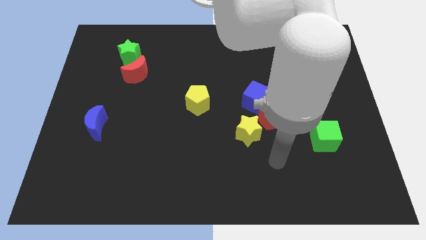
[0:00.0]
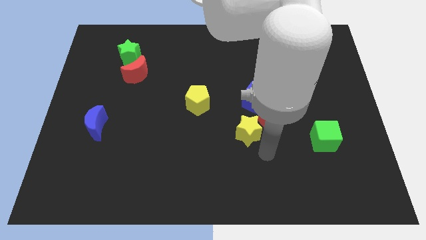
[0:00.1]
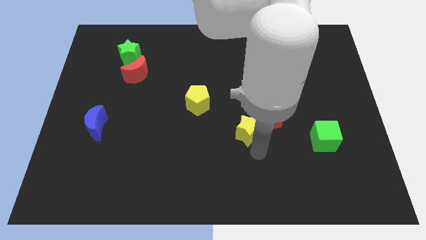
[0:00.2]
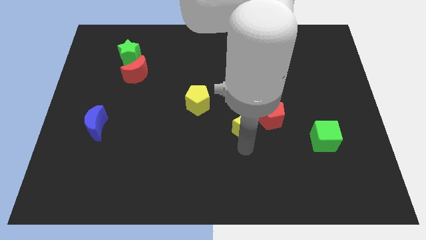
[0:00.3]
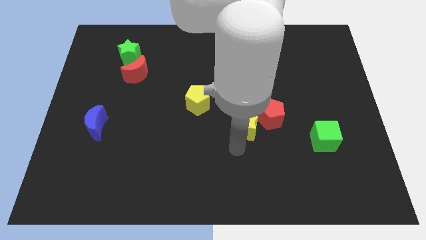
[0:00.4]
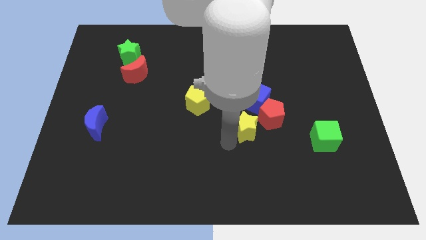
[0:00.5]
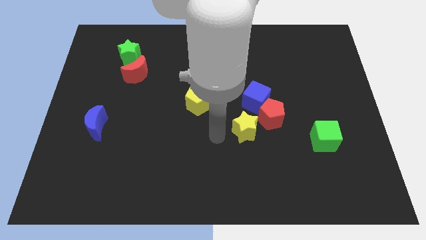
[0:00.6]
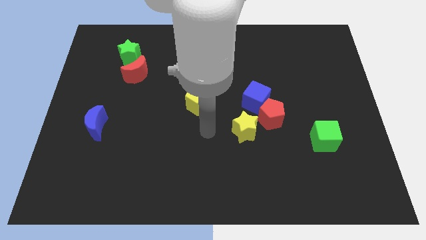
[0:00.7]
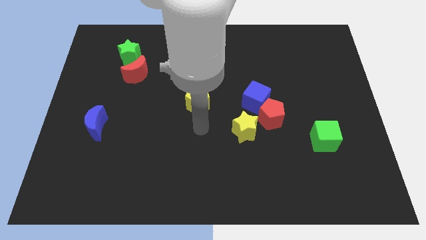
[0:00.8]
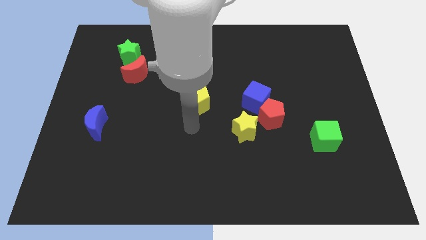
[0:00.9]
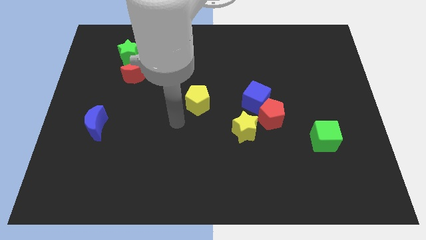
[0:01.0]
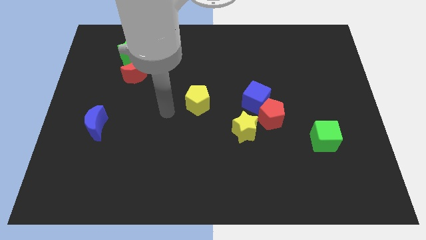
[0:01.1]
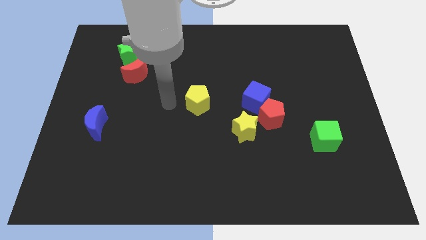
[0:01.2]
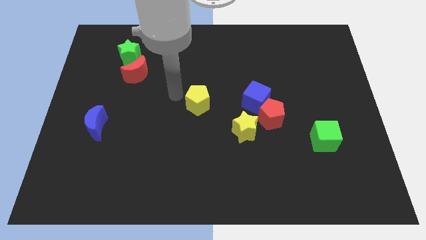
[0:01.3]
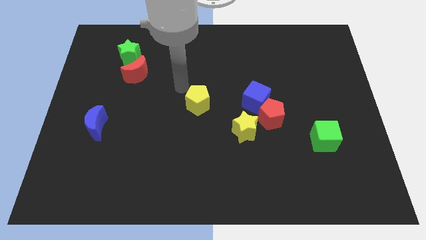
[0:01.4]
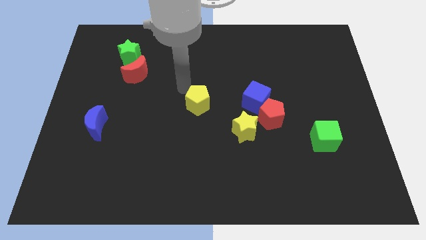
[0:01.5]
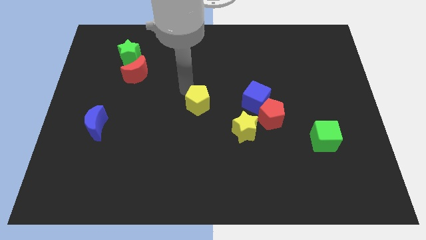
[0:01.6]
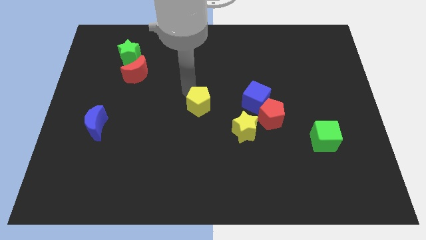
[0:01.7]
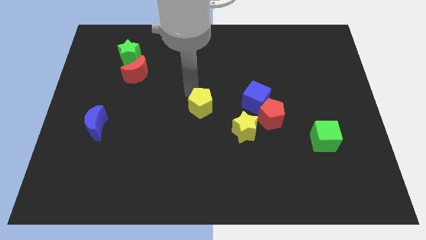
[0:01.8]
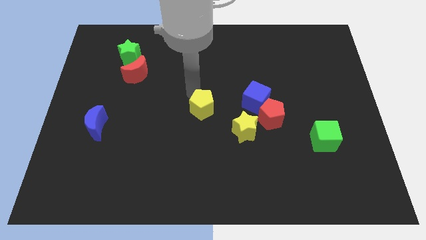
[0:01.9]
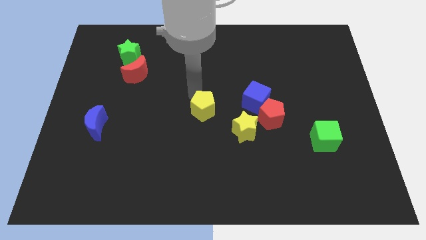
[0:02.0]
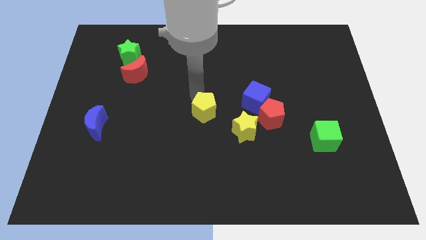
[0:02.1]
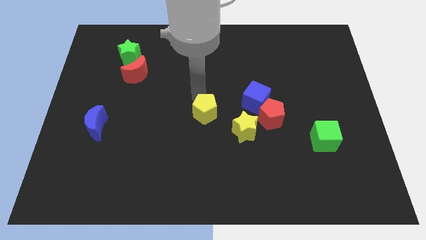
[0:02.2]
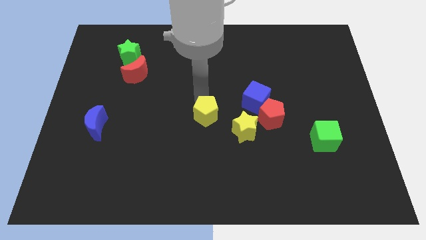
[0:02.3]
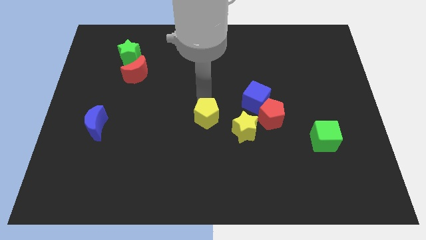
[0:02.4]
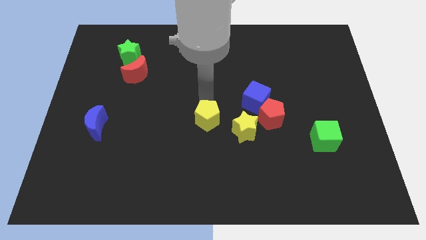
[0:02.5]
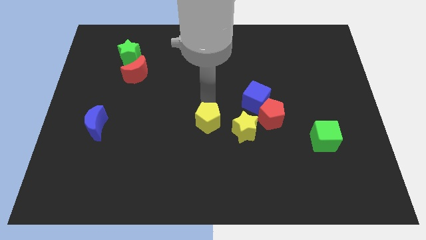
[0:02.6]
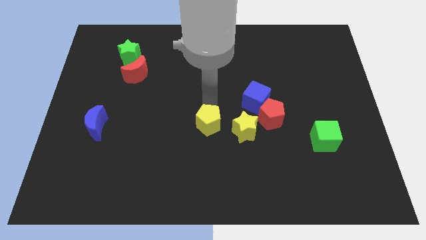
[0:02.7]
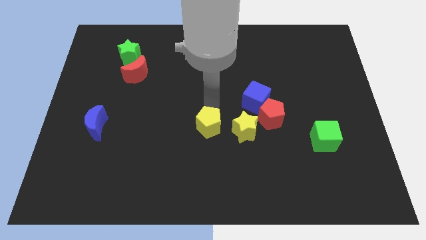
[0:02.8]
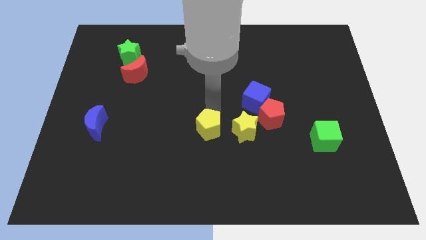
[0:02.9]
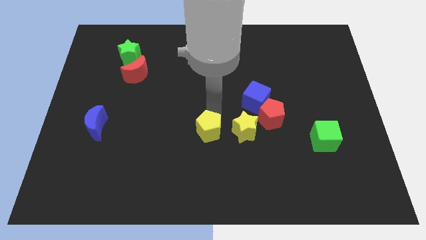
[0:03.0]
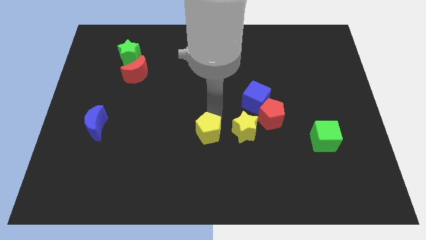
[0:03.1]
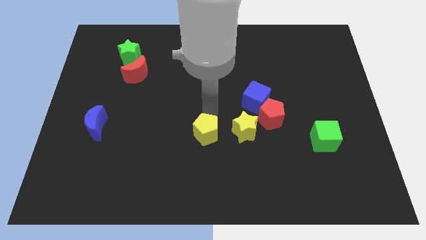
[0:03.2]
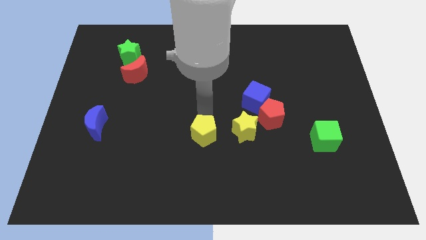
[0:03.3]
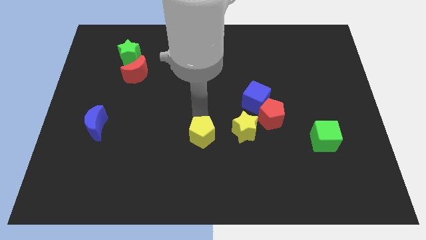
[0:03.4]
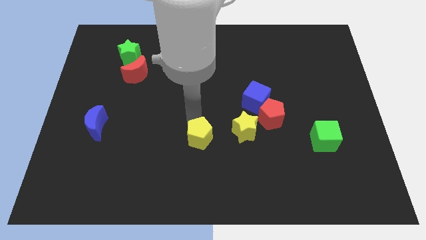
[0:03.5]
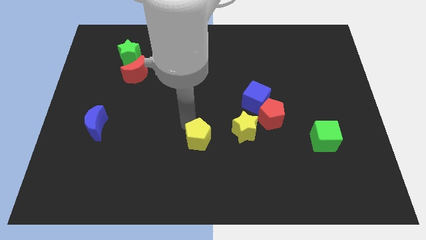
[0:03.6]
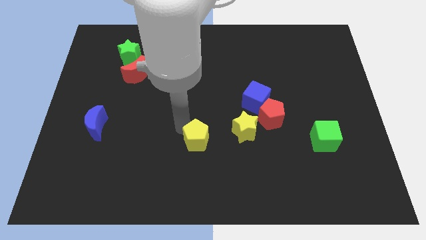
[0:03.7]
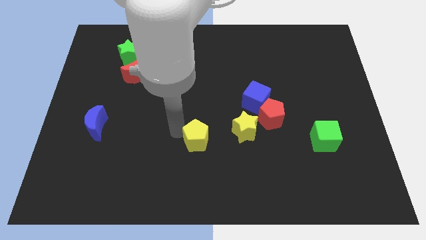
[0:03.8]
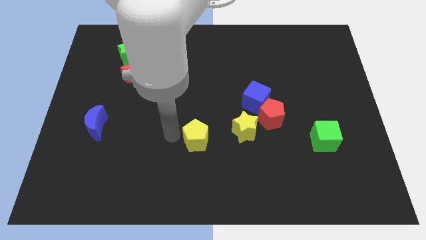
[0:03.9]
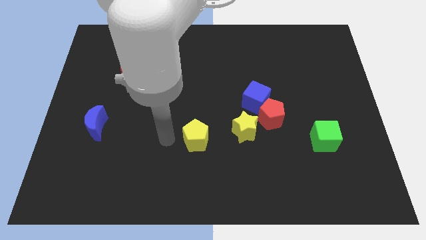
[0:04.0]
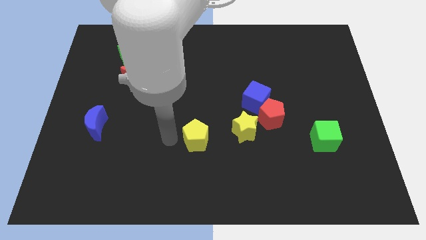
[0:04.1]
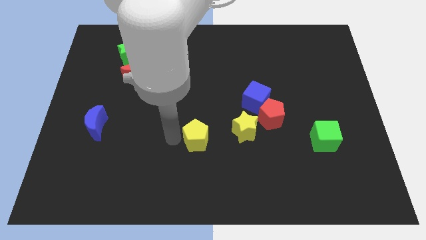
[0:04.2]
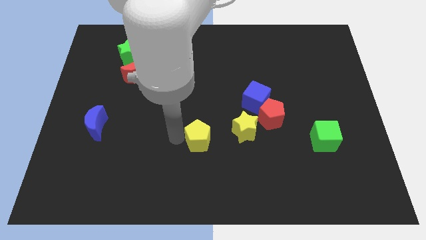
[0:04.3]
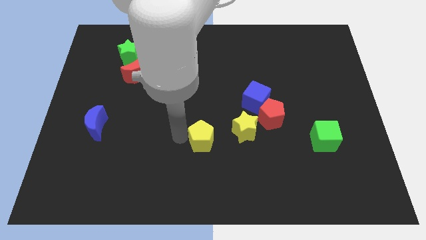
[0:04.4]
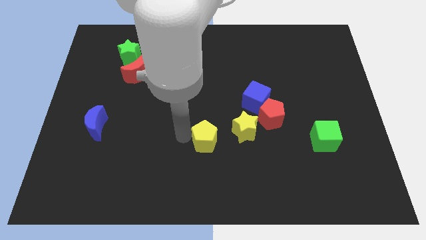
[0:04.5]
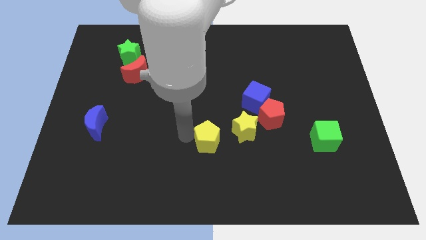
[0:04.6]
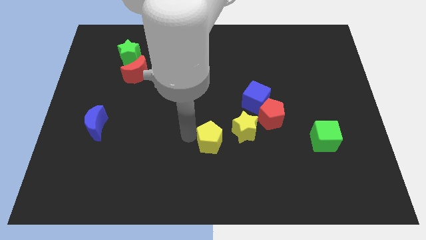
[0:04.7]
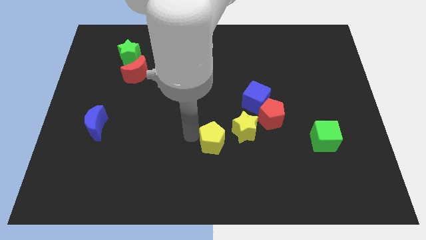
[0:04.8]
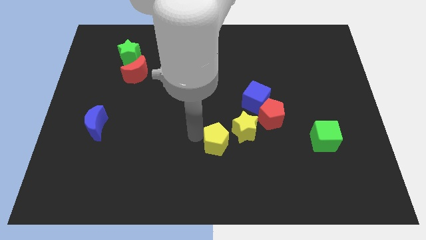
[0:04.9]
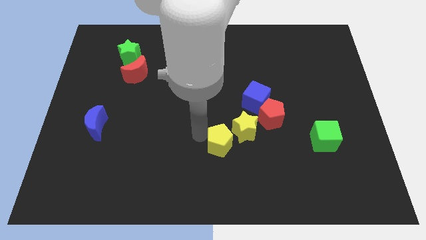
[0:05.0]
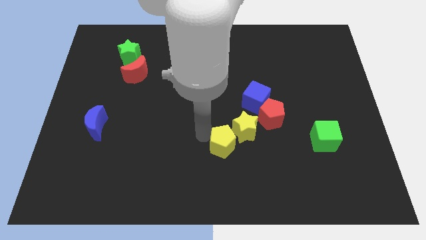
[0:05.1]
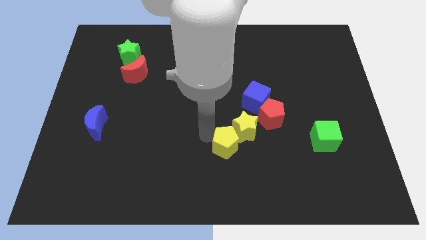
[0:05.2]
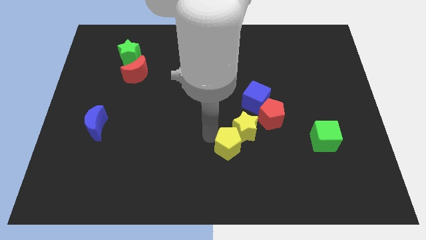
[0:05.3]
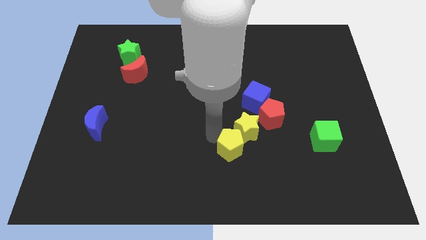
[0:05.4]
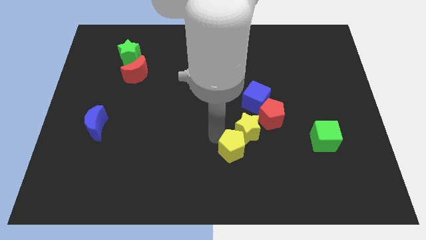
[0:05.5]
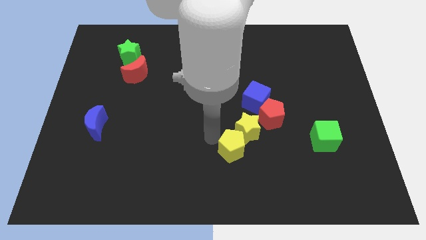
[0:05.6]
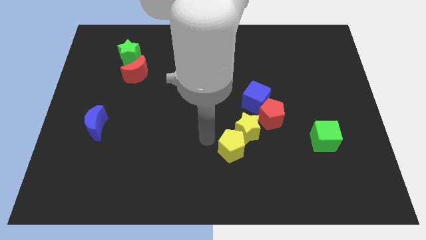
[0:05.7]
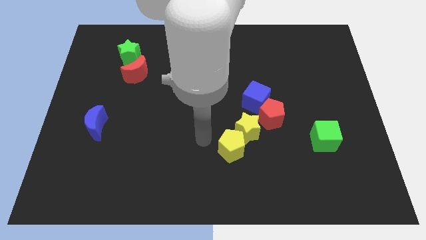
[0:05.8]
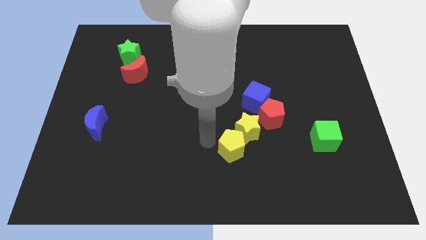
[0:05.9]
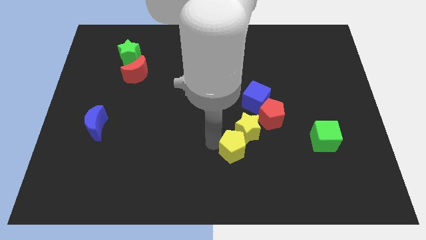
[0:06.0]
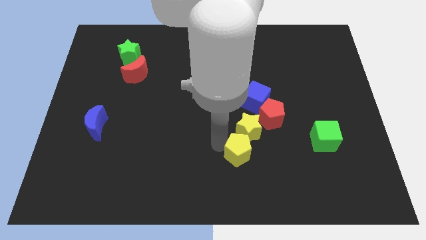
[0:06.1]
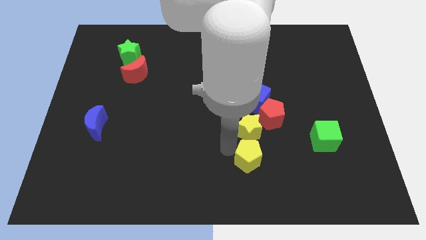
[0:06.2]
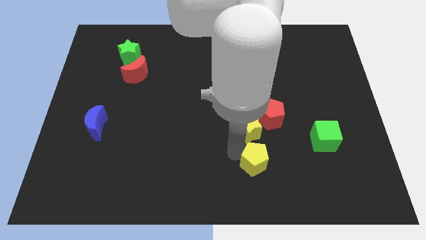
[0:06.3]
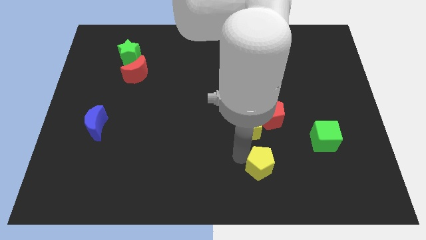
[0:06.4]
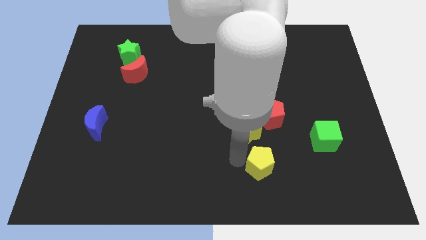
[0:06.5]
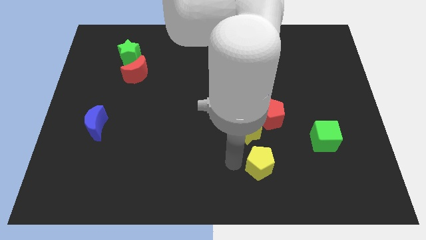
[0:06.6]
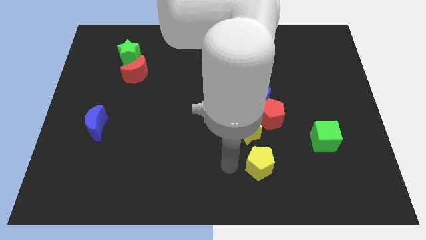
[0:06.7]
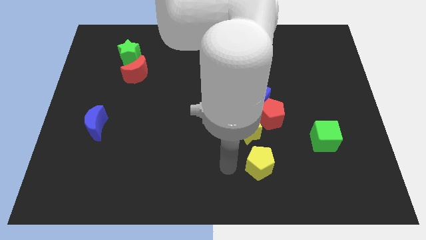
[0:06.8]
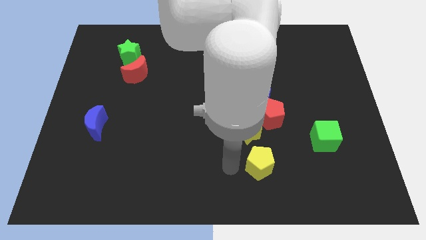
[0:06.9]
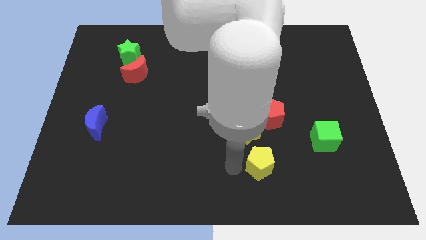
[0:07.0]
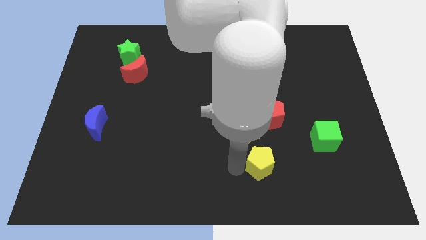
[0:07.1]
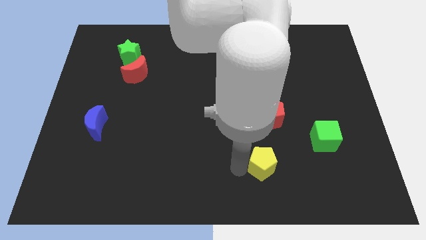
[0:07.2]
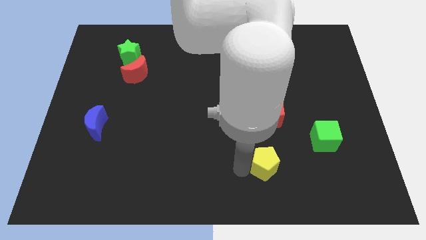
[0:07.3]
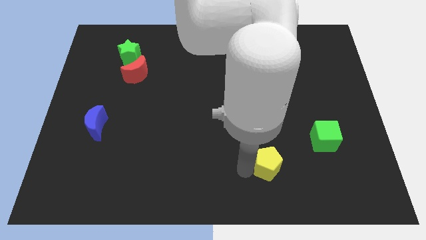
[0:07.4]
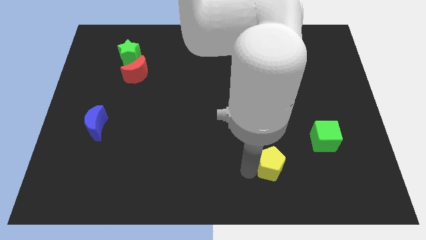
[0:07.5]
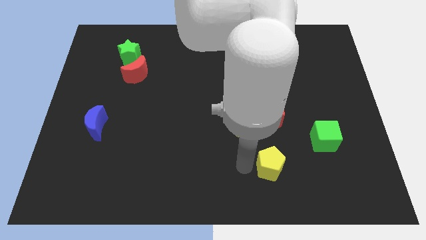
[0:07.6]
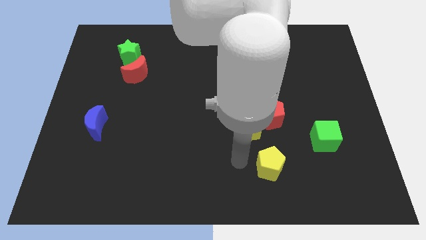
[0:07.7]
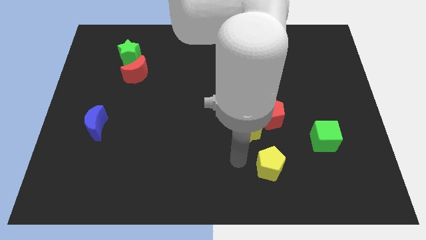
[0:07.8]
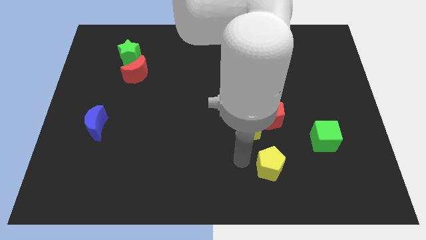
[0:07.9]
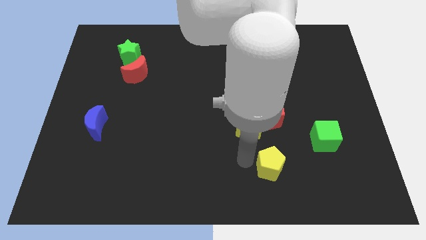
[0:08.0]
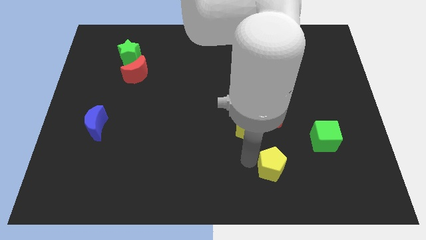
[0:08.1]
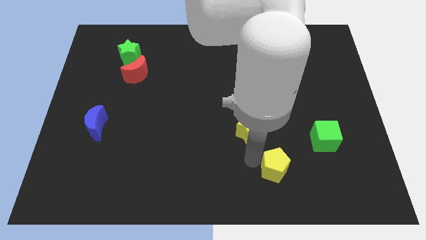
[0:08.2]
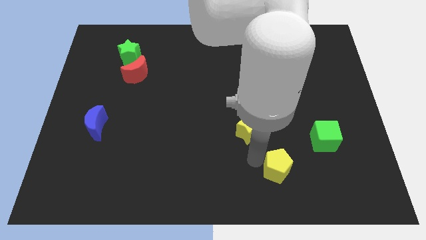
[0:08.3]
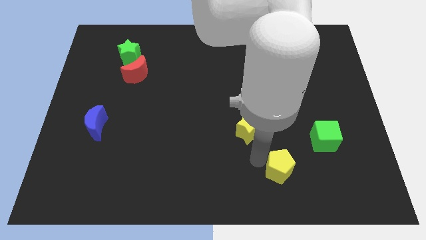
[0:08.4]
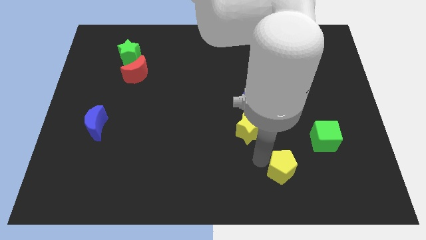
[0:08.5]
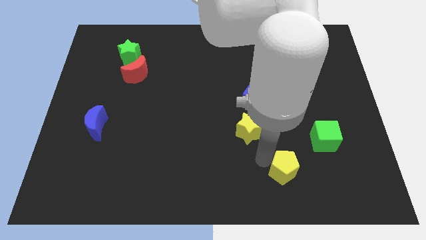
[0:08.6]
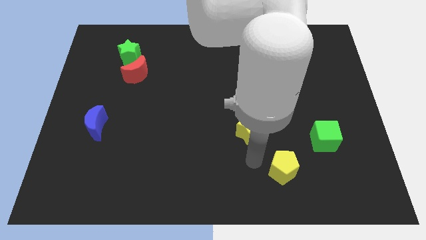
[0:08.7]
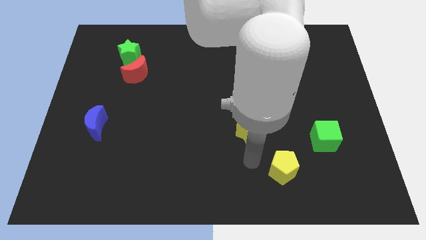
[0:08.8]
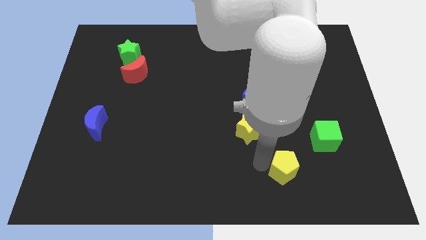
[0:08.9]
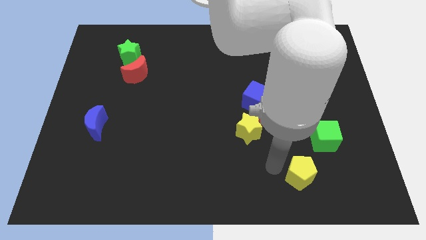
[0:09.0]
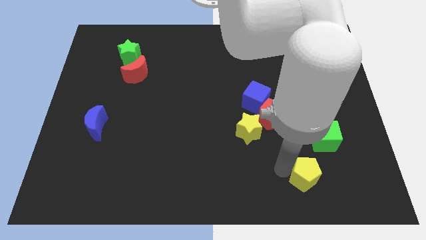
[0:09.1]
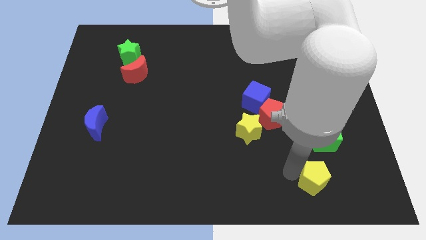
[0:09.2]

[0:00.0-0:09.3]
move the yellow pentagon below the green cube
